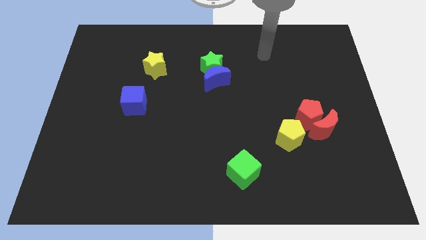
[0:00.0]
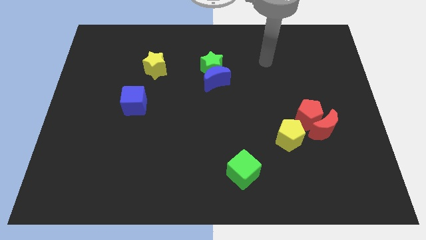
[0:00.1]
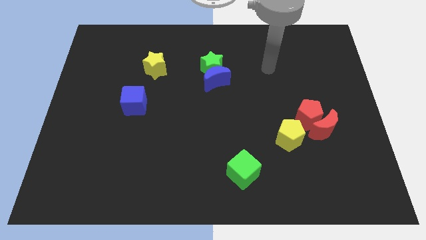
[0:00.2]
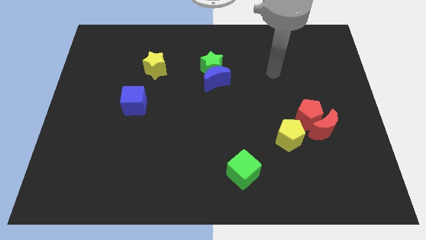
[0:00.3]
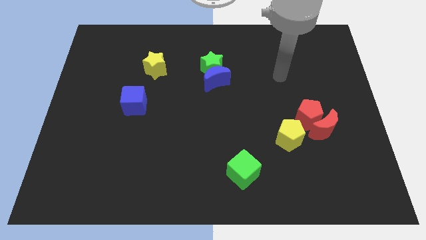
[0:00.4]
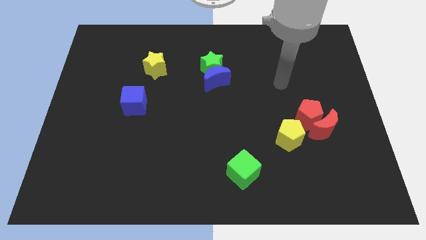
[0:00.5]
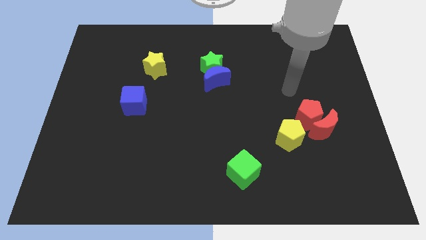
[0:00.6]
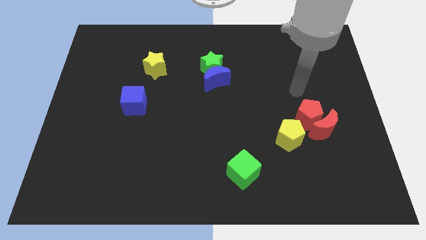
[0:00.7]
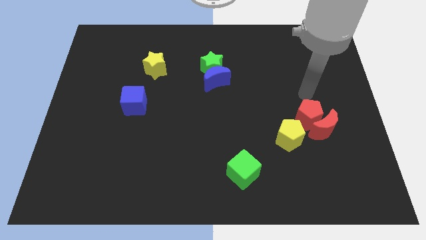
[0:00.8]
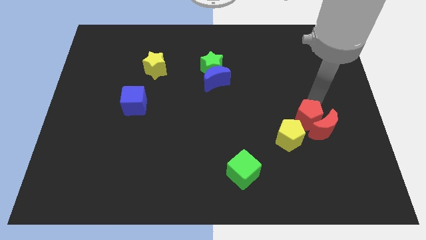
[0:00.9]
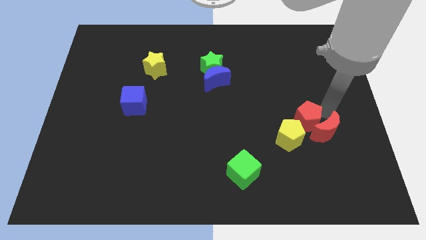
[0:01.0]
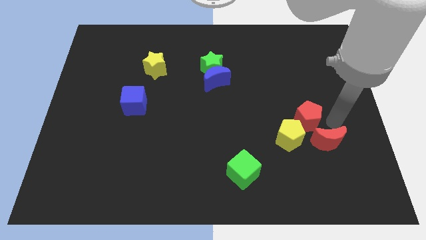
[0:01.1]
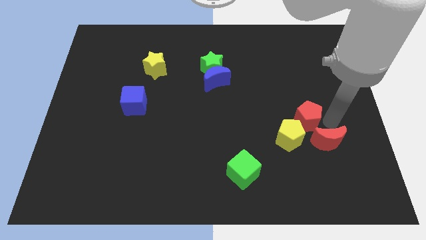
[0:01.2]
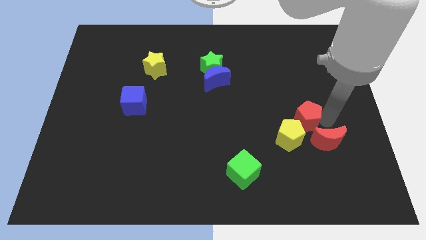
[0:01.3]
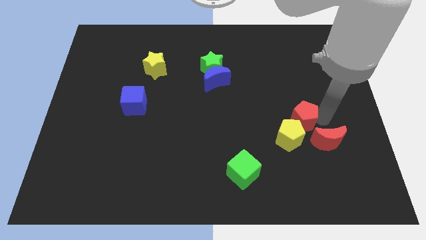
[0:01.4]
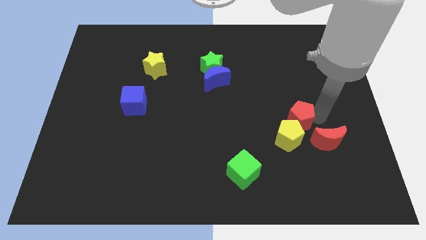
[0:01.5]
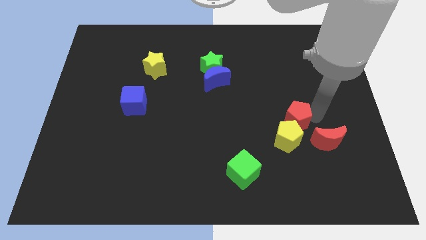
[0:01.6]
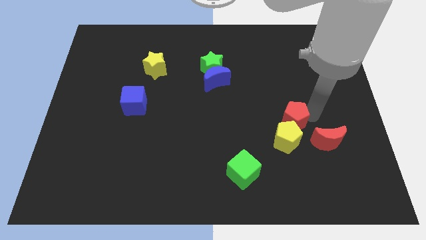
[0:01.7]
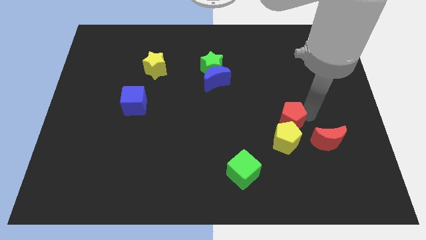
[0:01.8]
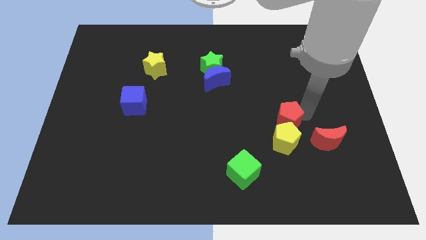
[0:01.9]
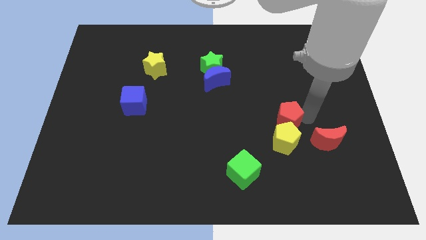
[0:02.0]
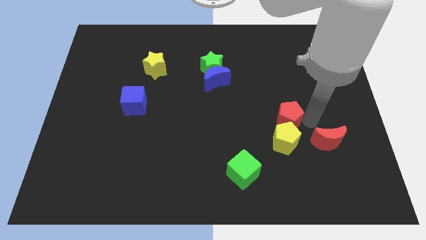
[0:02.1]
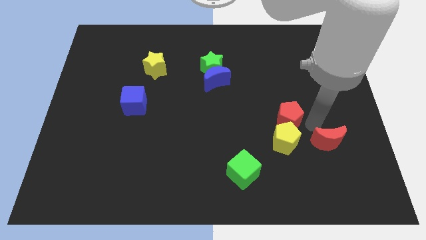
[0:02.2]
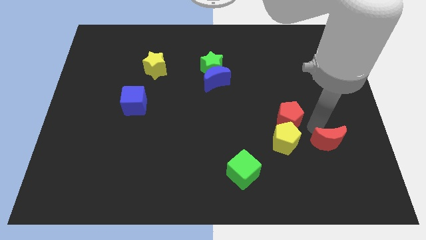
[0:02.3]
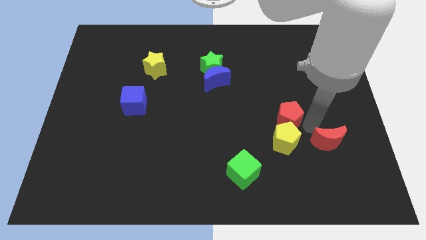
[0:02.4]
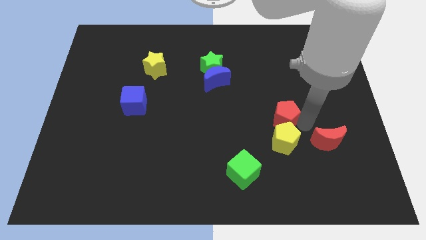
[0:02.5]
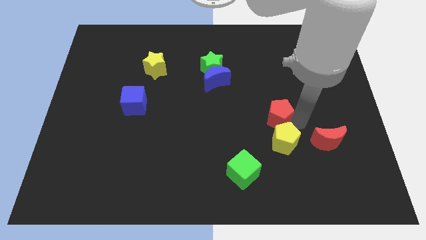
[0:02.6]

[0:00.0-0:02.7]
push the red pentagon left a little bit

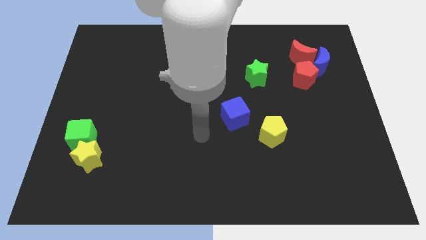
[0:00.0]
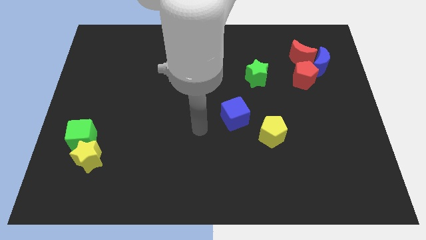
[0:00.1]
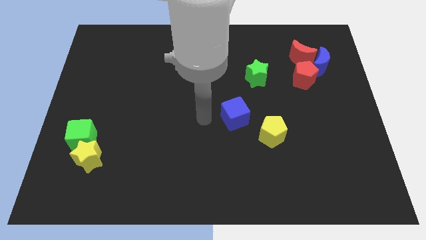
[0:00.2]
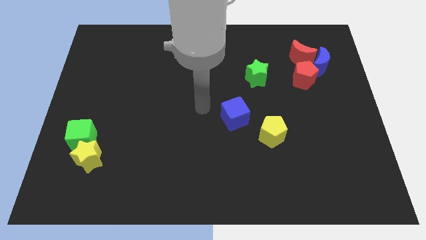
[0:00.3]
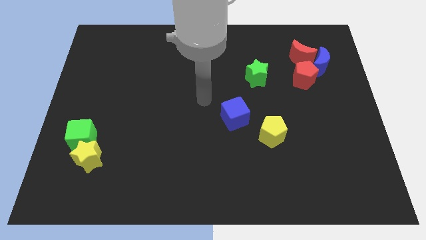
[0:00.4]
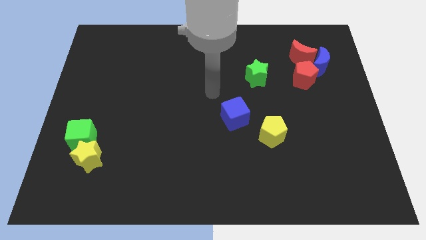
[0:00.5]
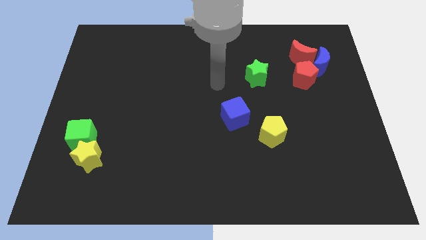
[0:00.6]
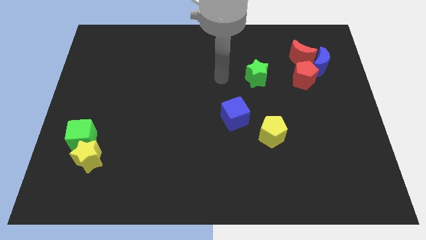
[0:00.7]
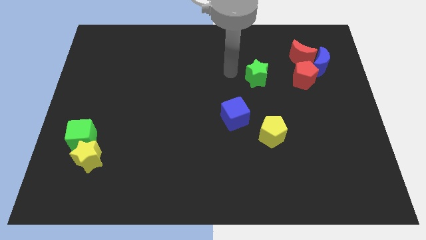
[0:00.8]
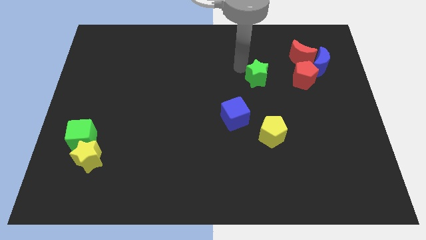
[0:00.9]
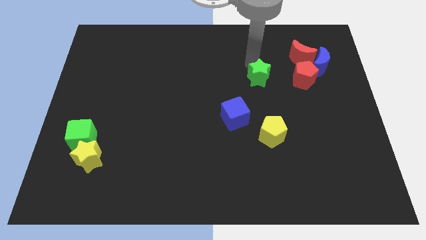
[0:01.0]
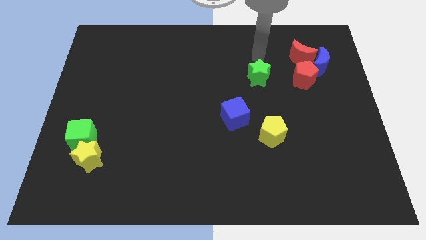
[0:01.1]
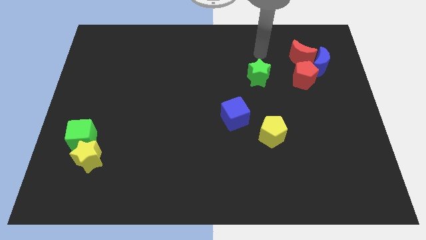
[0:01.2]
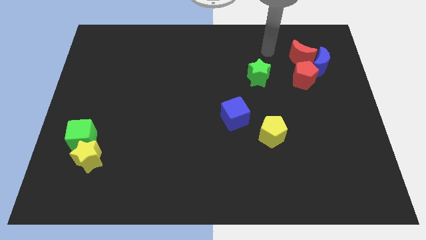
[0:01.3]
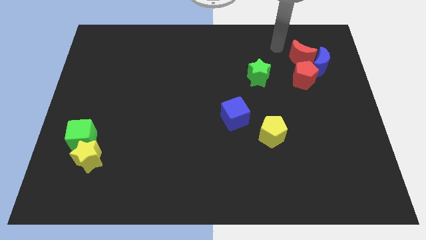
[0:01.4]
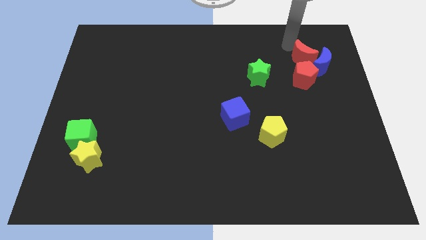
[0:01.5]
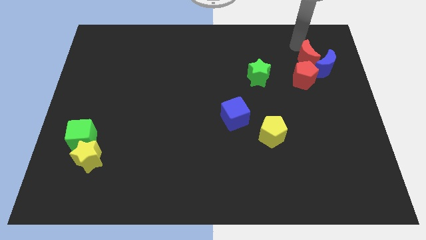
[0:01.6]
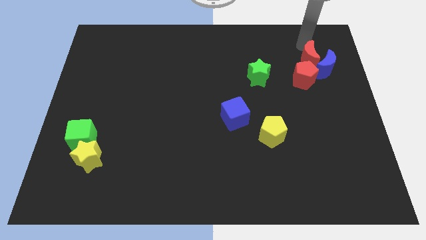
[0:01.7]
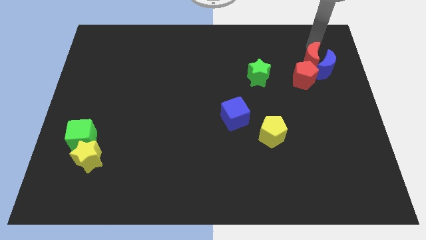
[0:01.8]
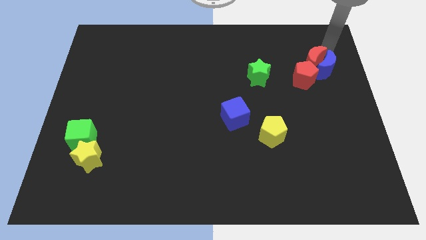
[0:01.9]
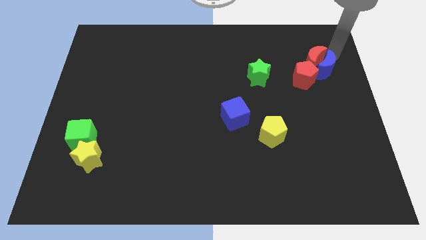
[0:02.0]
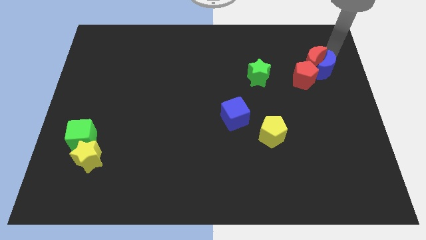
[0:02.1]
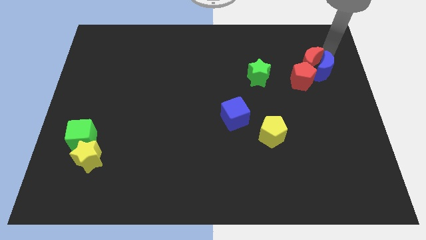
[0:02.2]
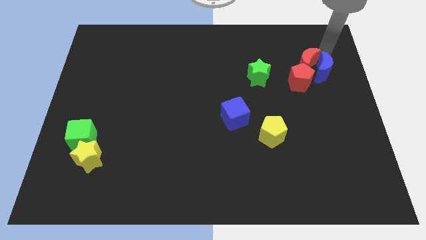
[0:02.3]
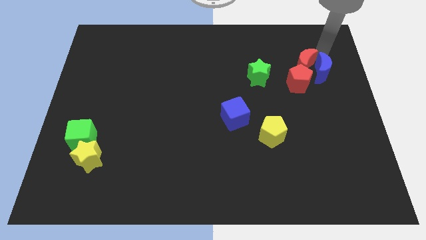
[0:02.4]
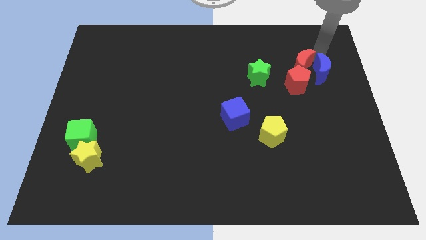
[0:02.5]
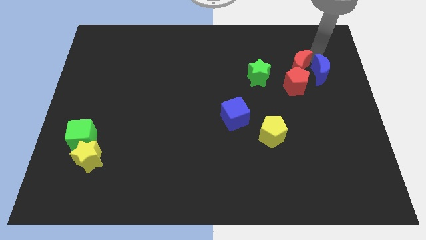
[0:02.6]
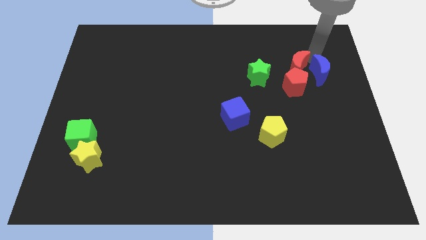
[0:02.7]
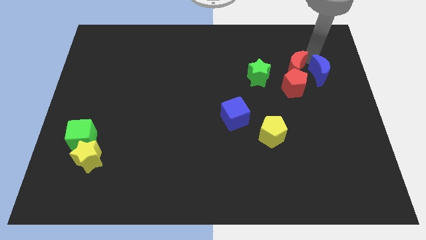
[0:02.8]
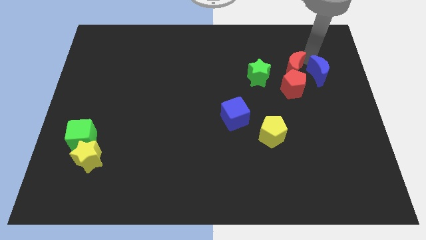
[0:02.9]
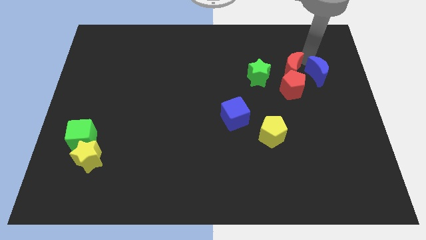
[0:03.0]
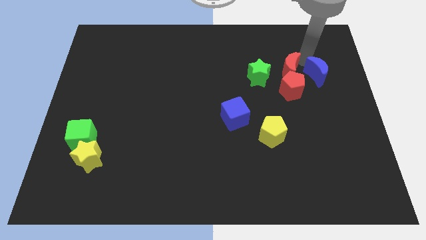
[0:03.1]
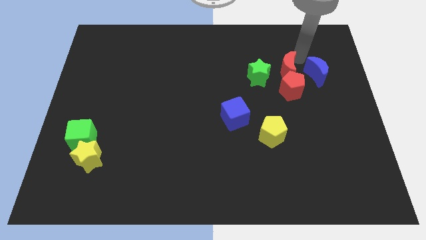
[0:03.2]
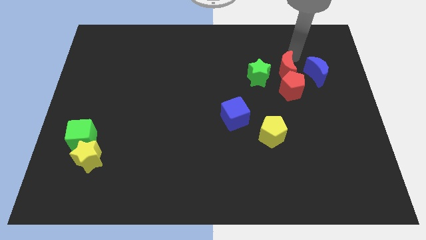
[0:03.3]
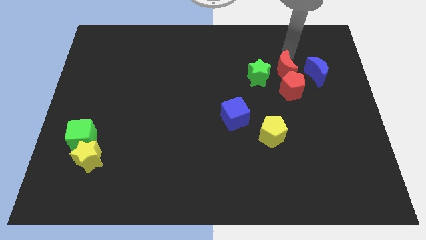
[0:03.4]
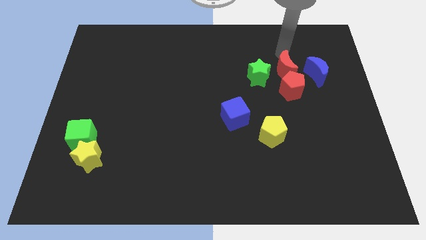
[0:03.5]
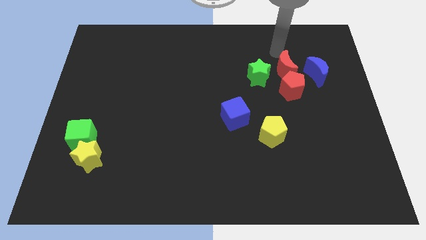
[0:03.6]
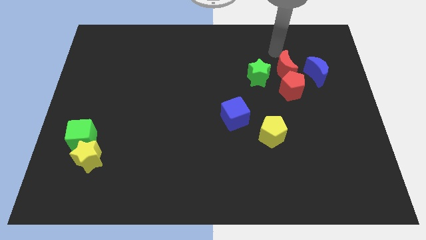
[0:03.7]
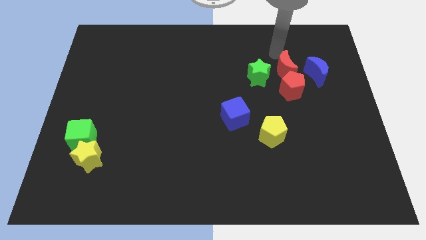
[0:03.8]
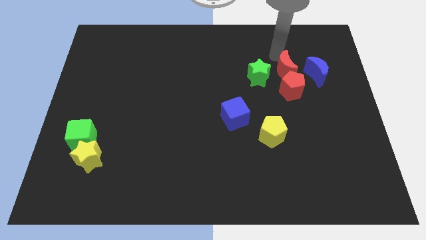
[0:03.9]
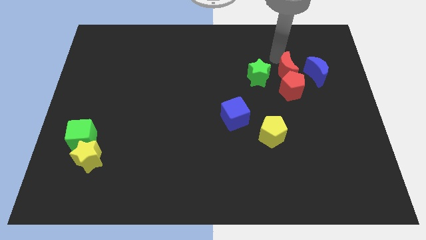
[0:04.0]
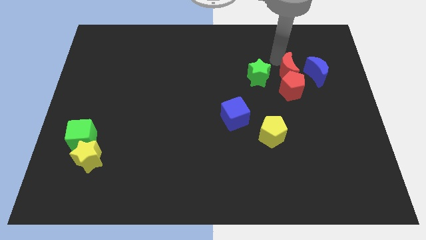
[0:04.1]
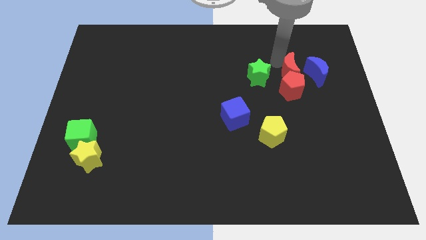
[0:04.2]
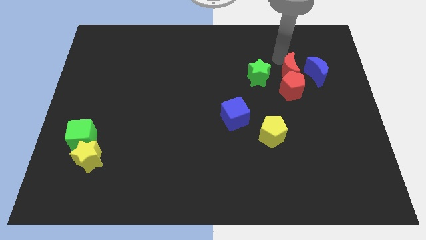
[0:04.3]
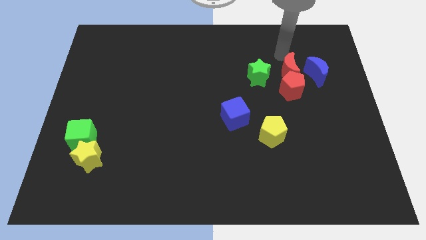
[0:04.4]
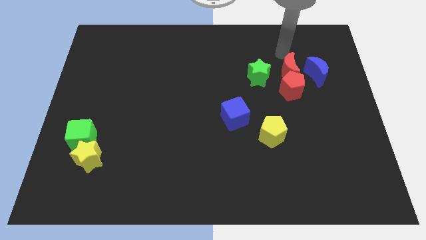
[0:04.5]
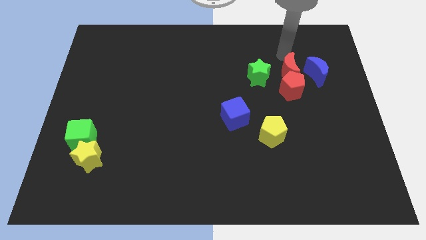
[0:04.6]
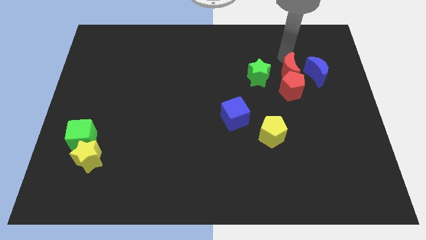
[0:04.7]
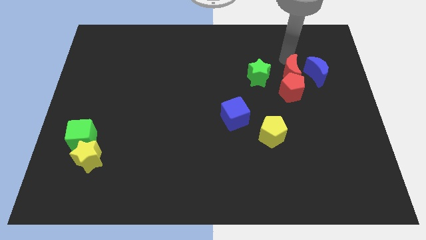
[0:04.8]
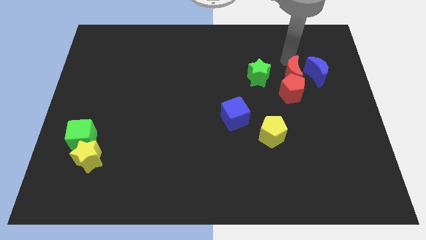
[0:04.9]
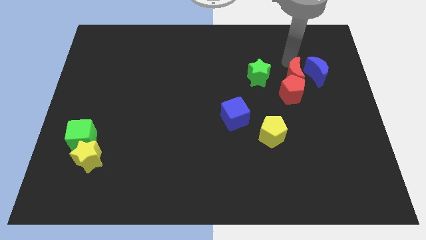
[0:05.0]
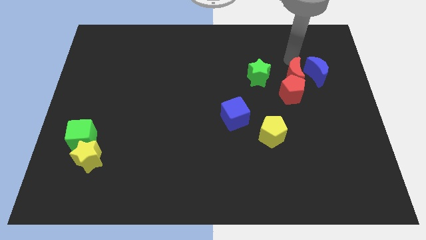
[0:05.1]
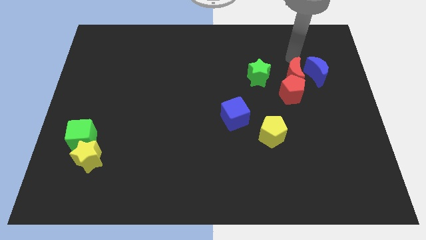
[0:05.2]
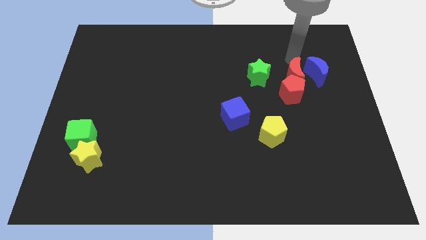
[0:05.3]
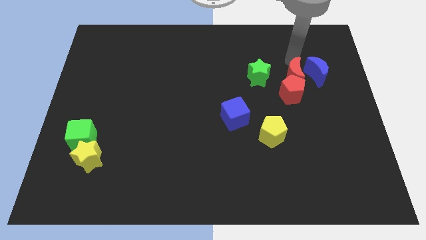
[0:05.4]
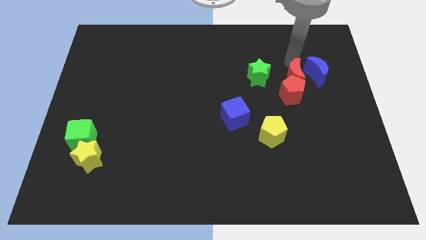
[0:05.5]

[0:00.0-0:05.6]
push the red moon a little bit downwards
